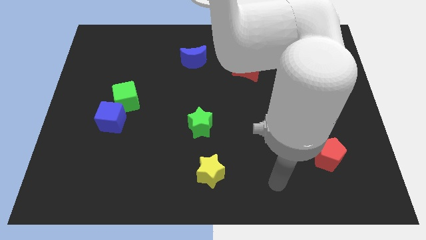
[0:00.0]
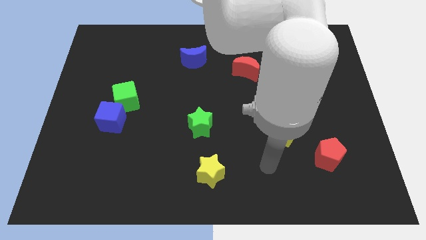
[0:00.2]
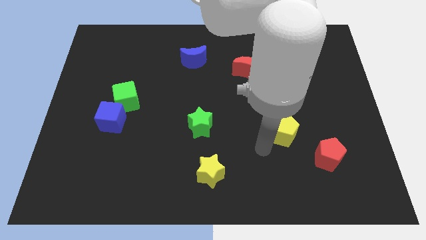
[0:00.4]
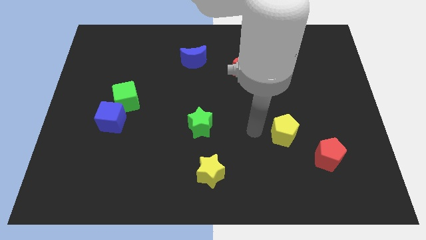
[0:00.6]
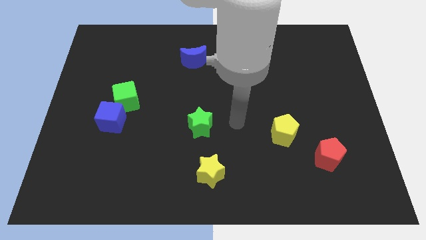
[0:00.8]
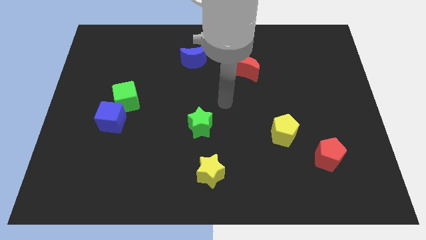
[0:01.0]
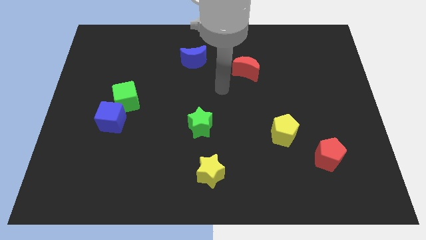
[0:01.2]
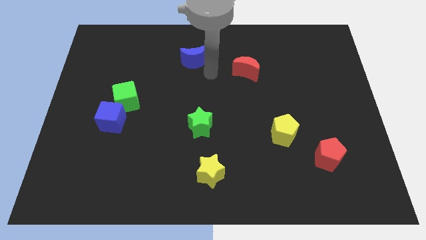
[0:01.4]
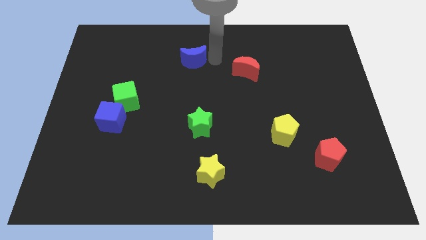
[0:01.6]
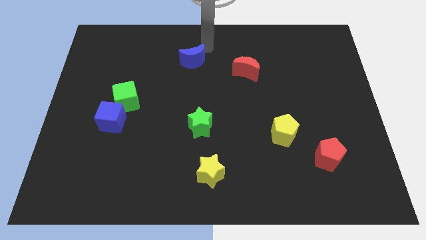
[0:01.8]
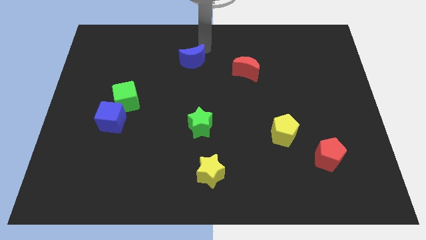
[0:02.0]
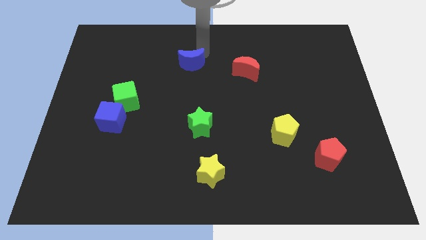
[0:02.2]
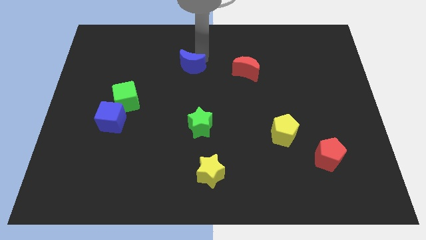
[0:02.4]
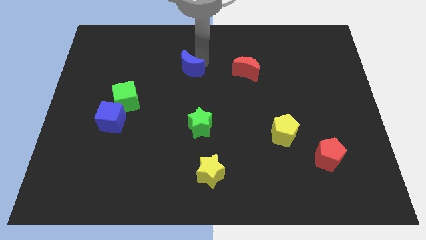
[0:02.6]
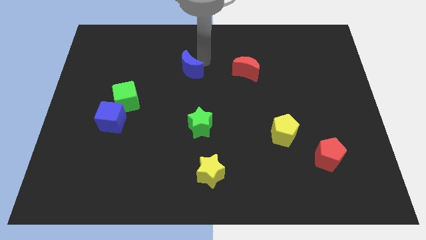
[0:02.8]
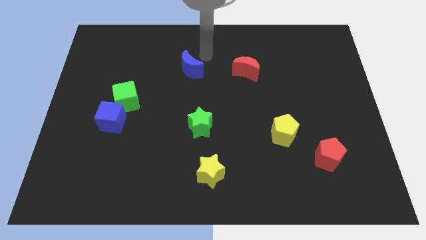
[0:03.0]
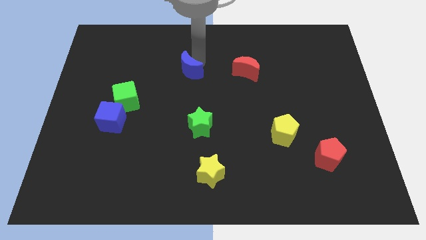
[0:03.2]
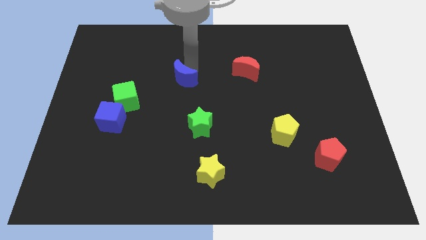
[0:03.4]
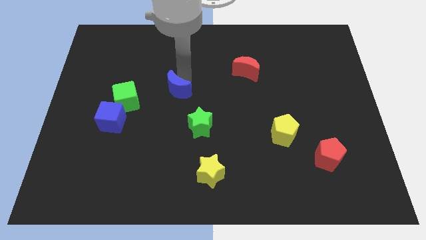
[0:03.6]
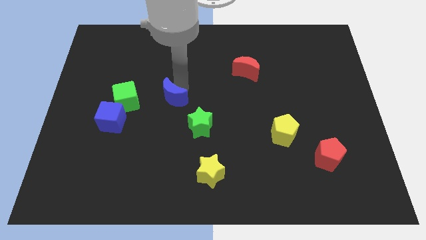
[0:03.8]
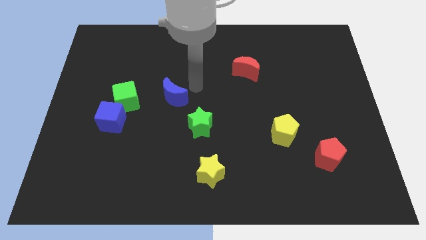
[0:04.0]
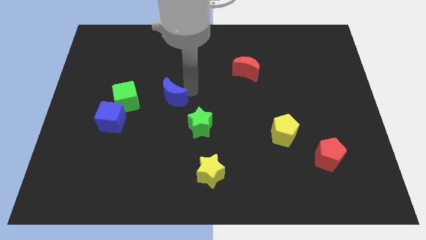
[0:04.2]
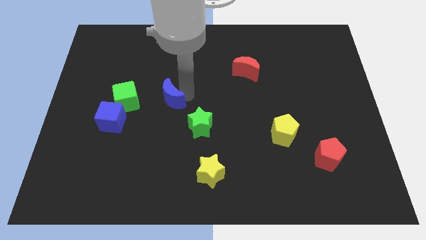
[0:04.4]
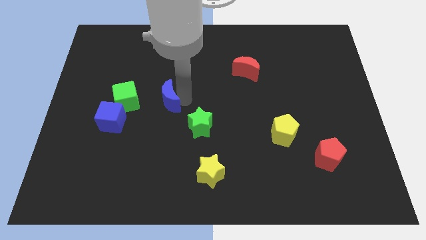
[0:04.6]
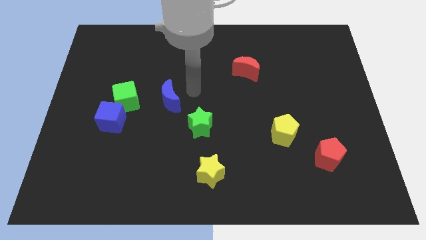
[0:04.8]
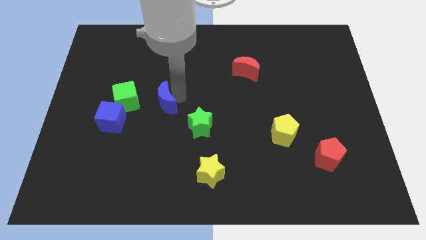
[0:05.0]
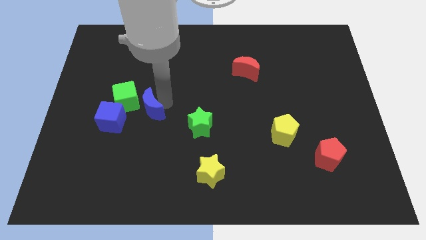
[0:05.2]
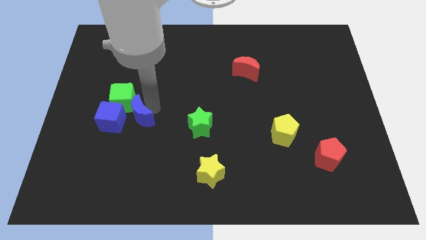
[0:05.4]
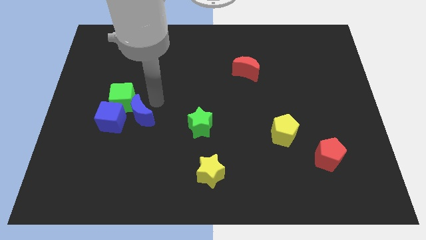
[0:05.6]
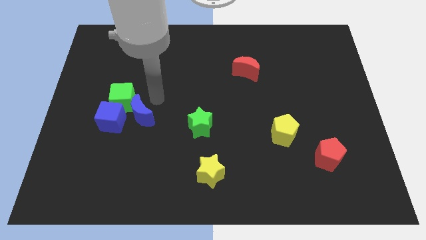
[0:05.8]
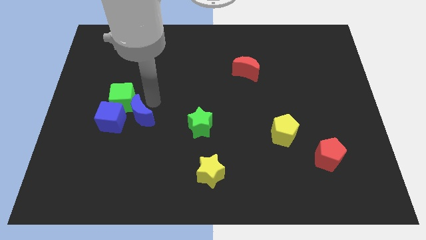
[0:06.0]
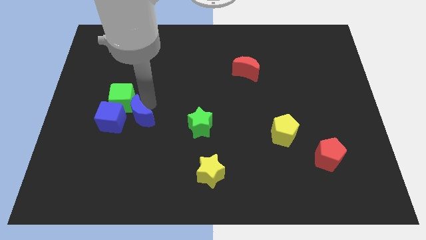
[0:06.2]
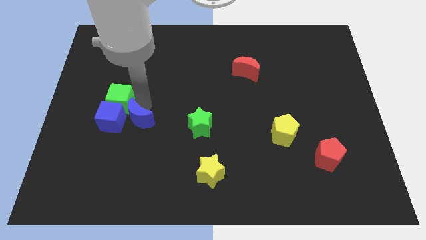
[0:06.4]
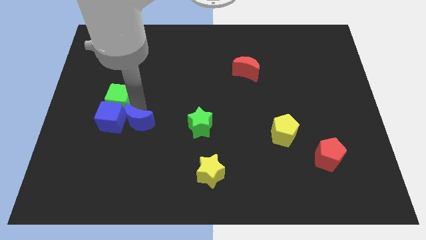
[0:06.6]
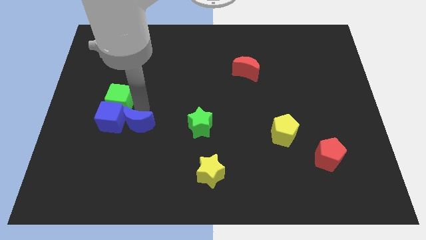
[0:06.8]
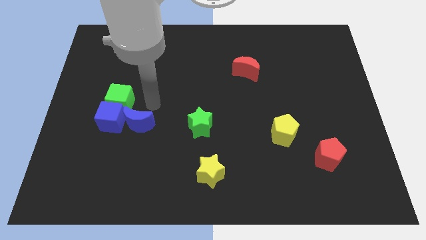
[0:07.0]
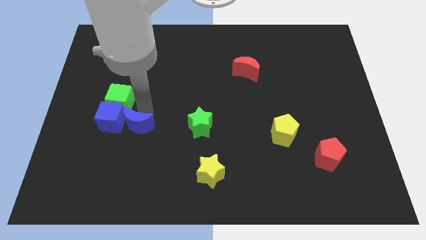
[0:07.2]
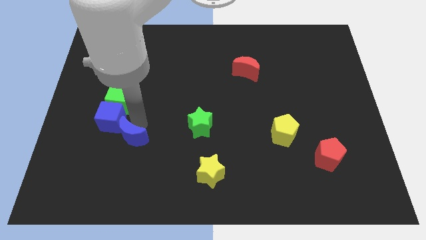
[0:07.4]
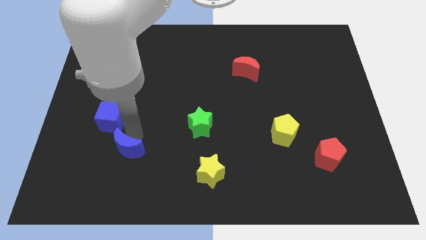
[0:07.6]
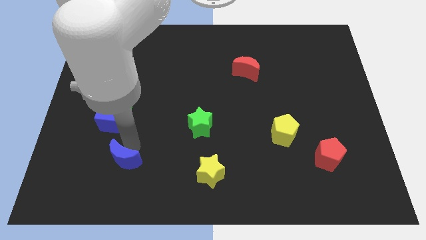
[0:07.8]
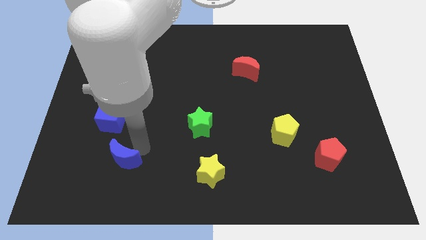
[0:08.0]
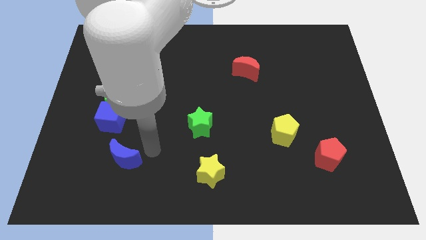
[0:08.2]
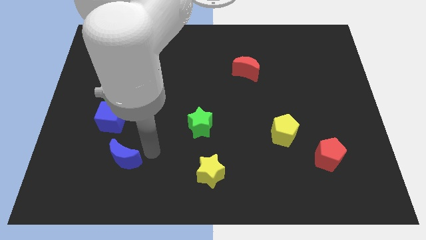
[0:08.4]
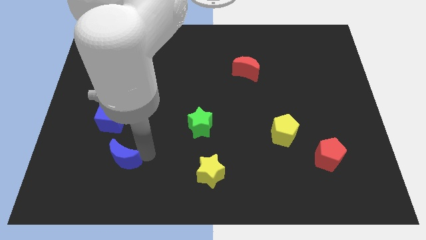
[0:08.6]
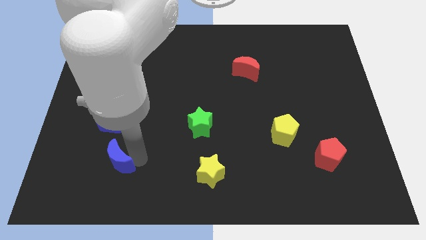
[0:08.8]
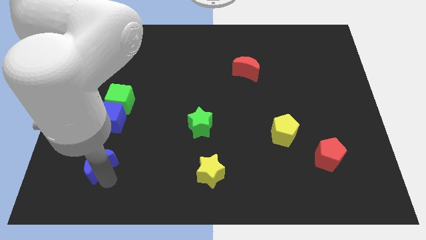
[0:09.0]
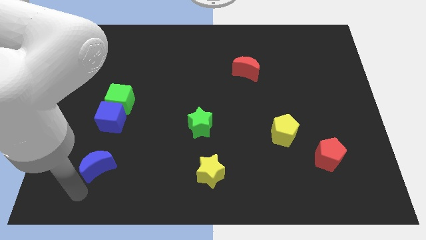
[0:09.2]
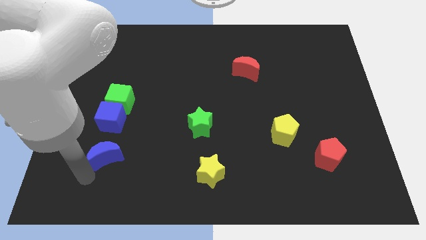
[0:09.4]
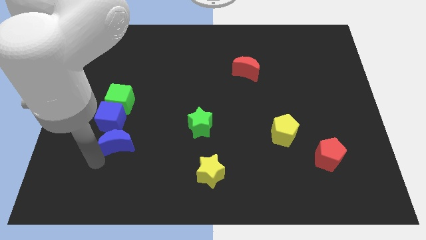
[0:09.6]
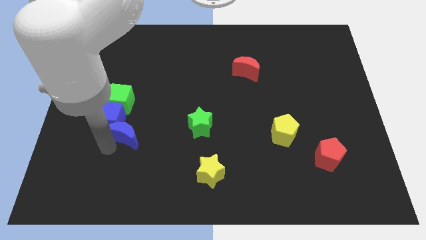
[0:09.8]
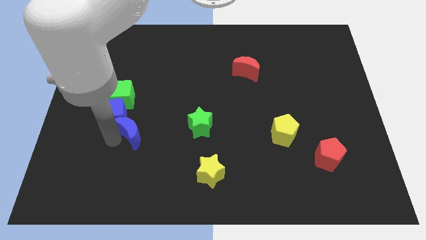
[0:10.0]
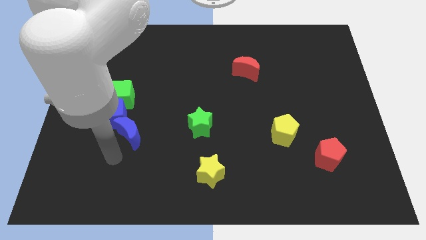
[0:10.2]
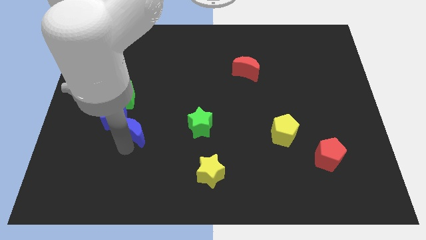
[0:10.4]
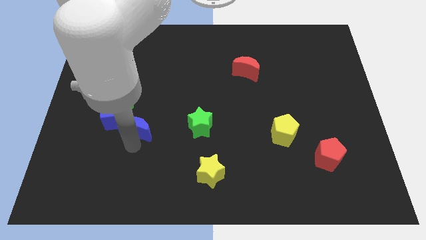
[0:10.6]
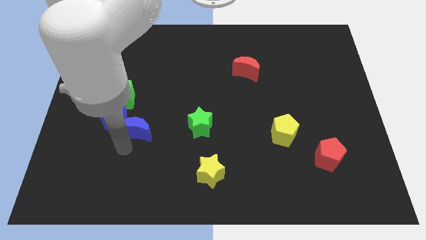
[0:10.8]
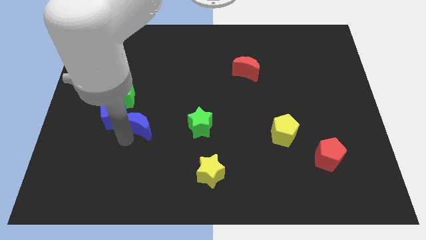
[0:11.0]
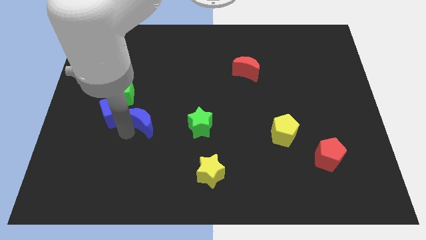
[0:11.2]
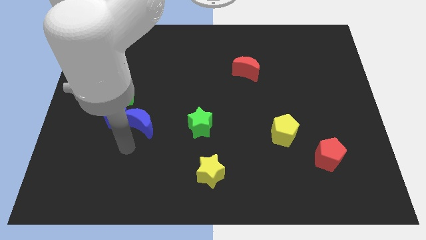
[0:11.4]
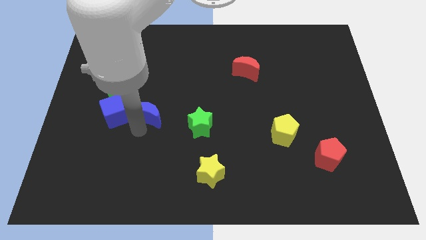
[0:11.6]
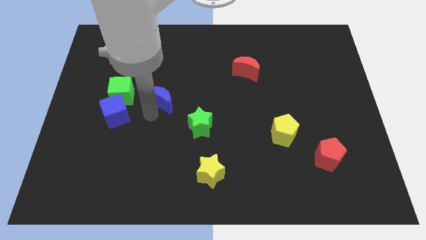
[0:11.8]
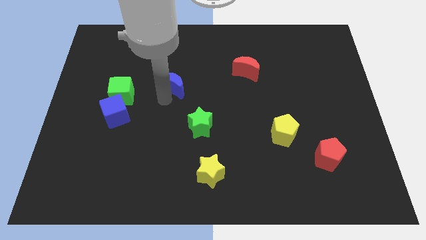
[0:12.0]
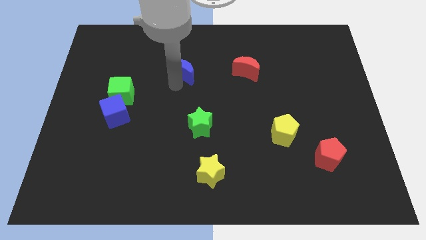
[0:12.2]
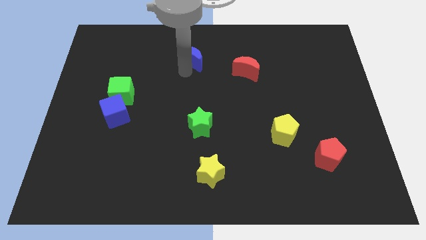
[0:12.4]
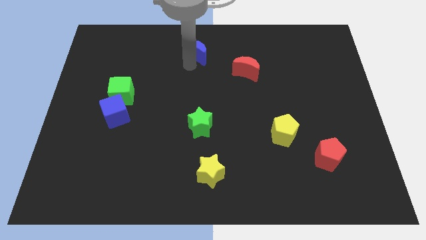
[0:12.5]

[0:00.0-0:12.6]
slide the blue moon to the towards your base
